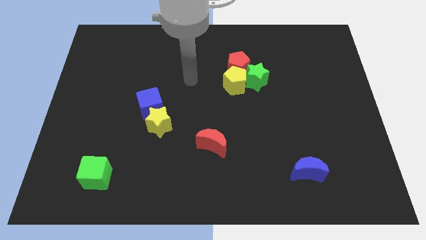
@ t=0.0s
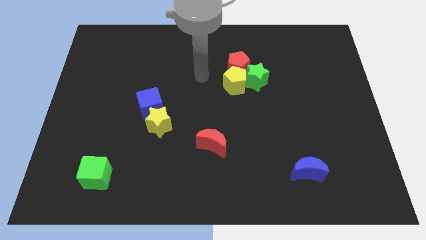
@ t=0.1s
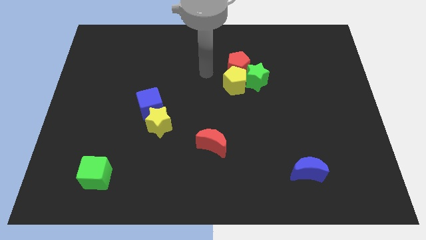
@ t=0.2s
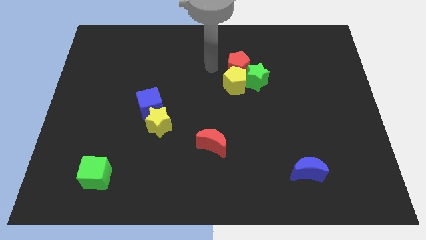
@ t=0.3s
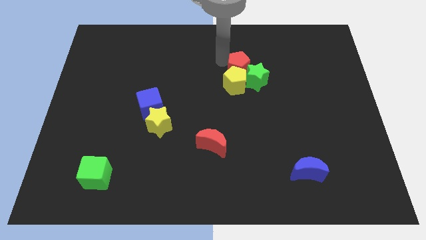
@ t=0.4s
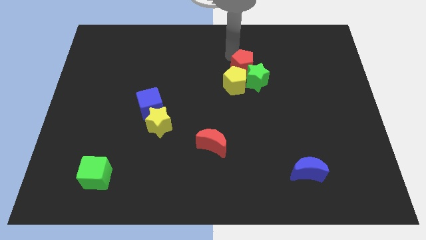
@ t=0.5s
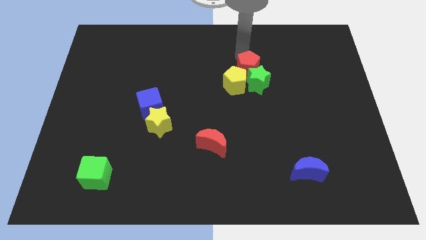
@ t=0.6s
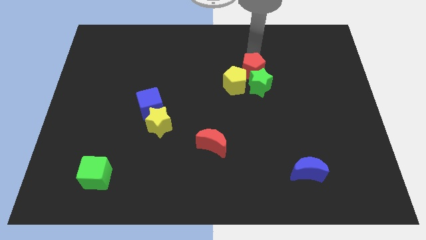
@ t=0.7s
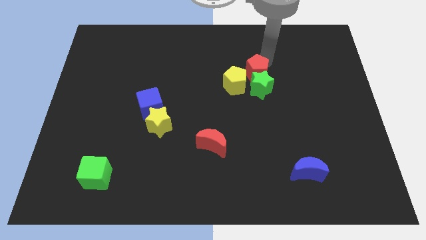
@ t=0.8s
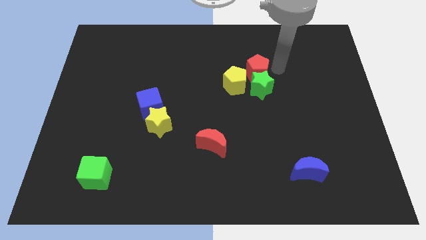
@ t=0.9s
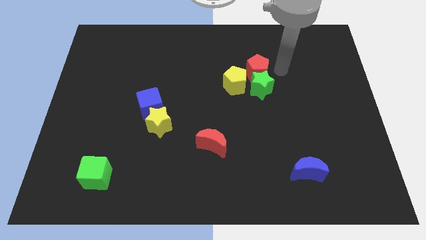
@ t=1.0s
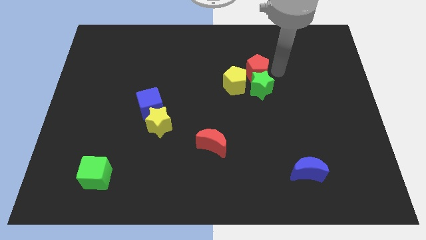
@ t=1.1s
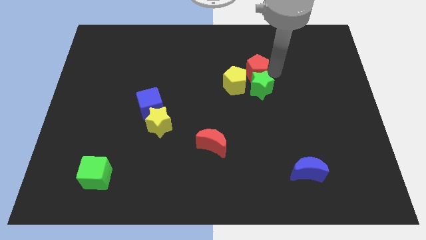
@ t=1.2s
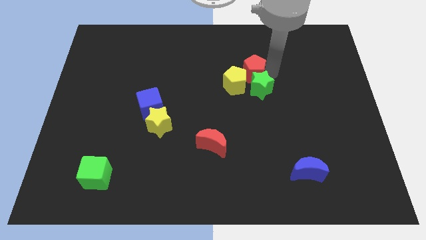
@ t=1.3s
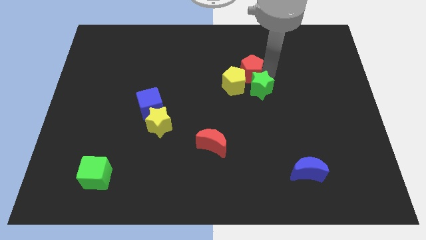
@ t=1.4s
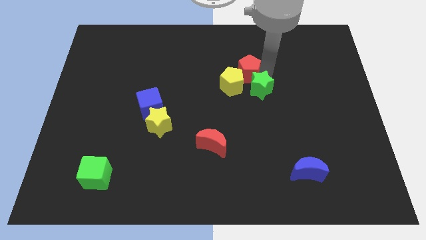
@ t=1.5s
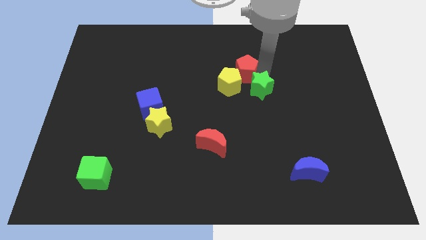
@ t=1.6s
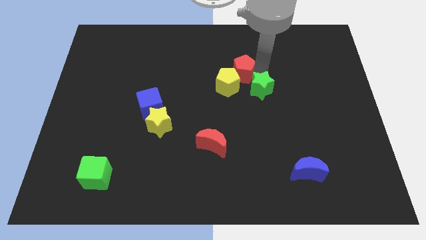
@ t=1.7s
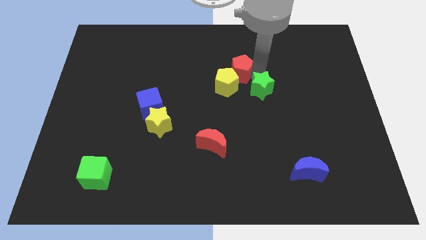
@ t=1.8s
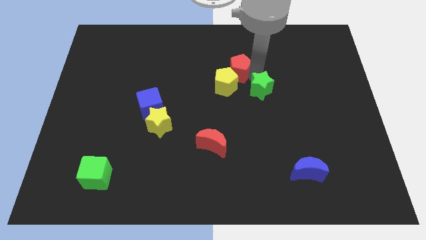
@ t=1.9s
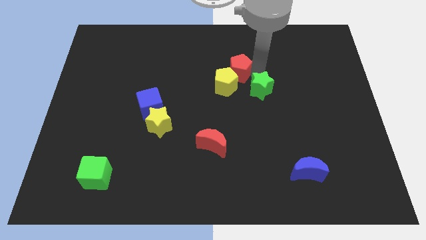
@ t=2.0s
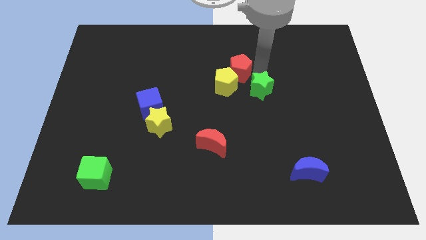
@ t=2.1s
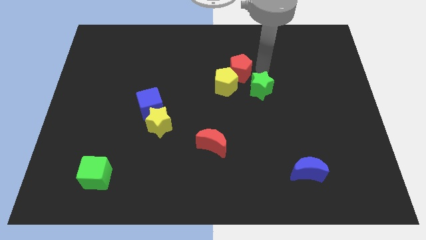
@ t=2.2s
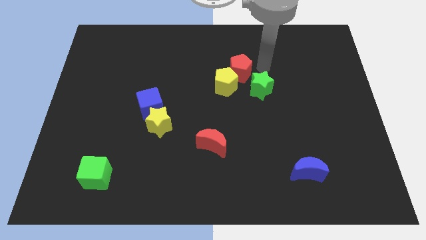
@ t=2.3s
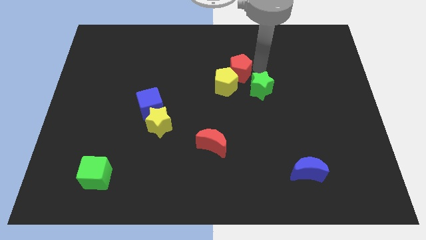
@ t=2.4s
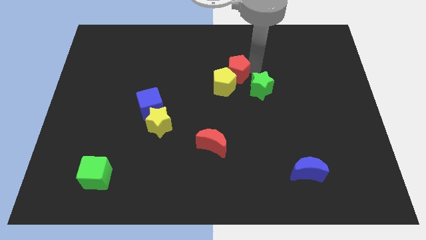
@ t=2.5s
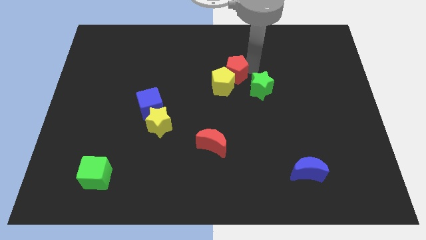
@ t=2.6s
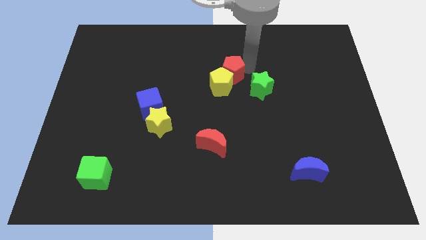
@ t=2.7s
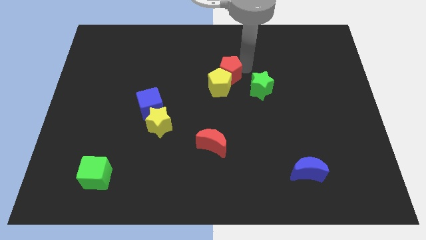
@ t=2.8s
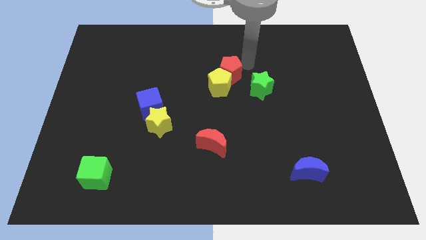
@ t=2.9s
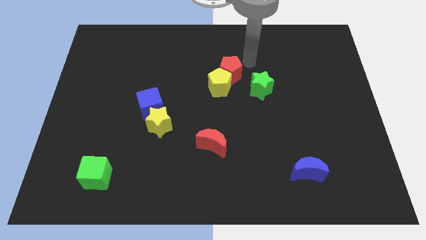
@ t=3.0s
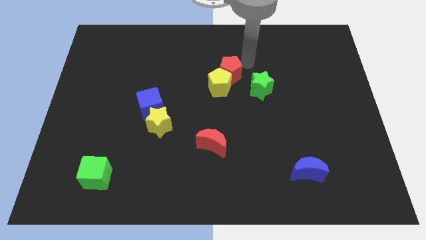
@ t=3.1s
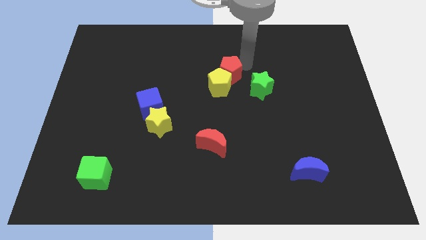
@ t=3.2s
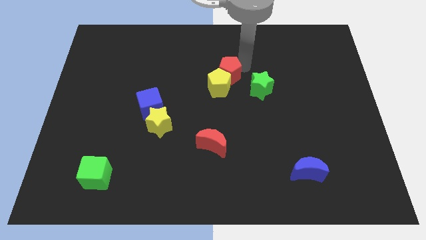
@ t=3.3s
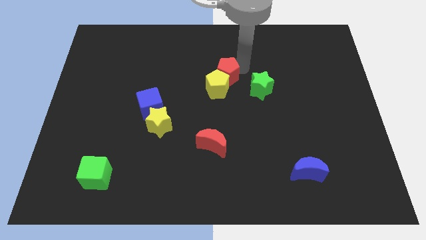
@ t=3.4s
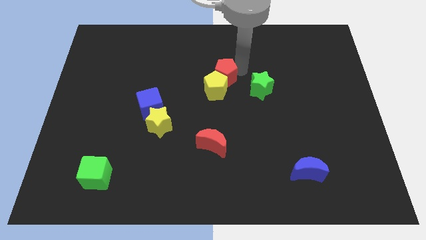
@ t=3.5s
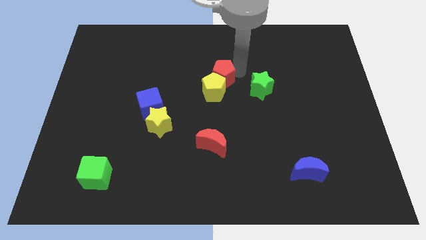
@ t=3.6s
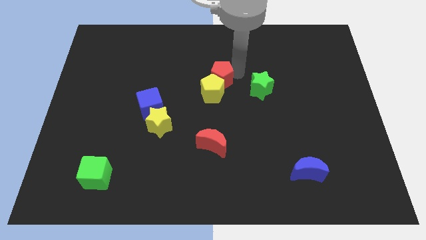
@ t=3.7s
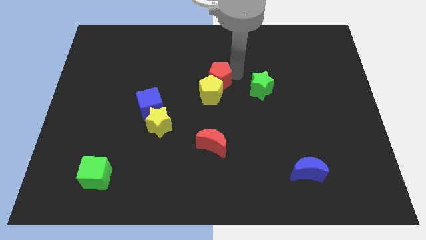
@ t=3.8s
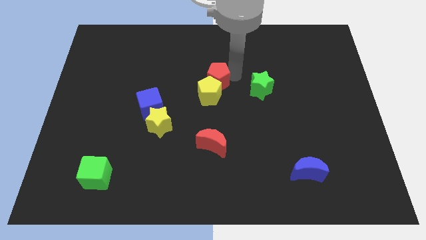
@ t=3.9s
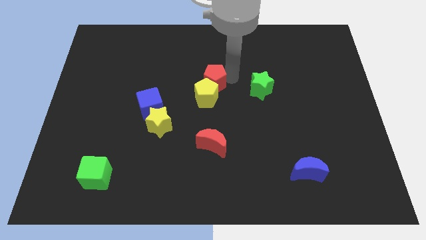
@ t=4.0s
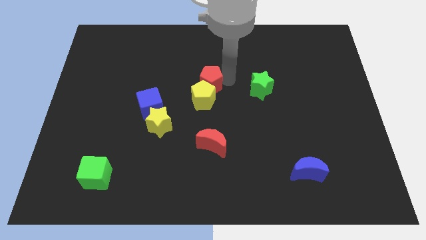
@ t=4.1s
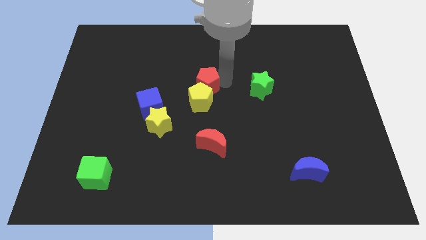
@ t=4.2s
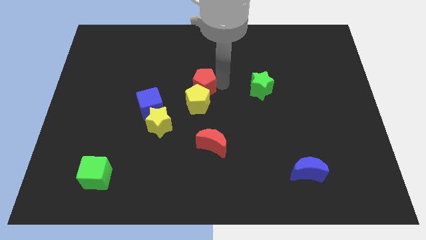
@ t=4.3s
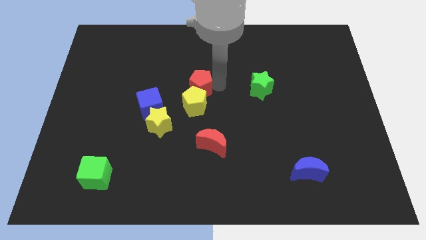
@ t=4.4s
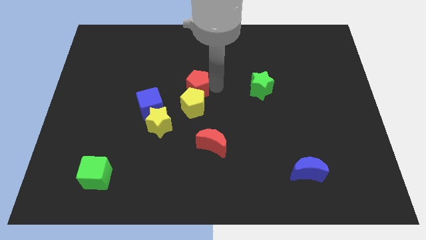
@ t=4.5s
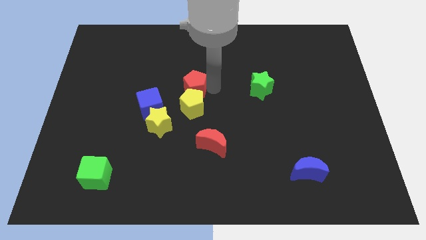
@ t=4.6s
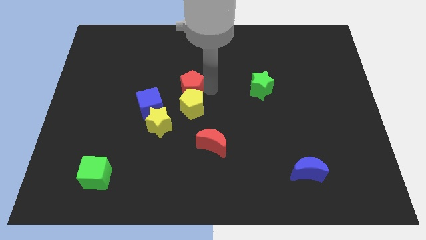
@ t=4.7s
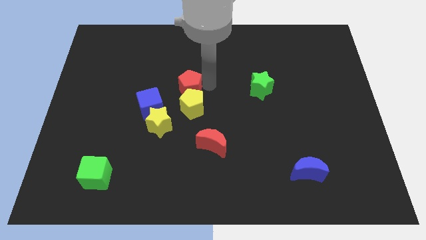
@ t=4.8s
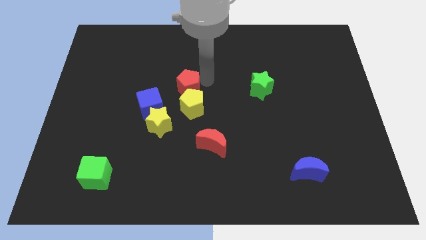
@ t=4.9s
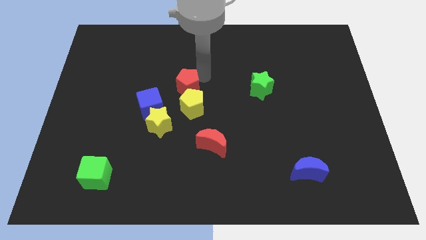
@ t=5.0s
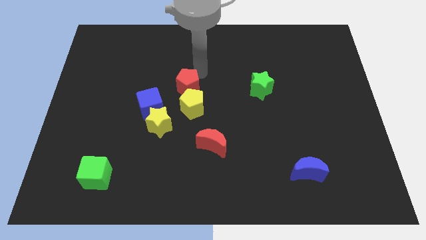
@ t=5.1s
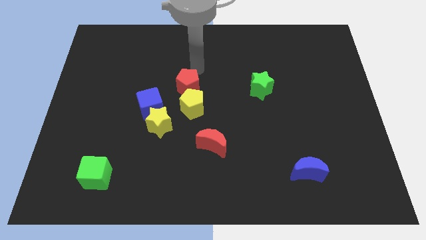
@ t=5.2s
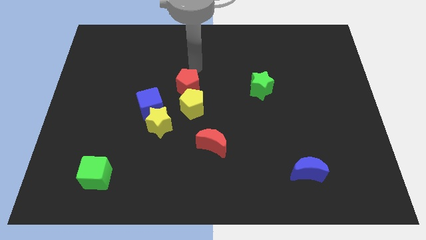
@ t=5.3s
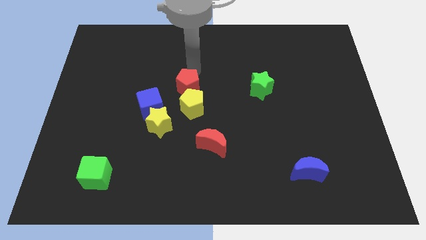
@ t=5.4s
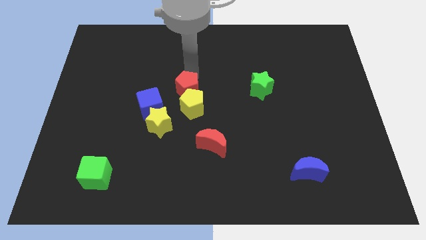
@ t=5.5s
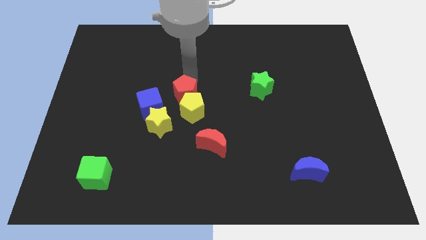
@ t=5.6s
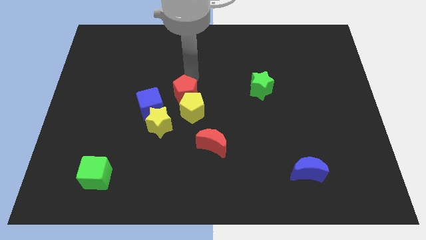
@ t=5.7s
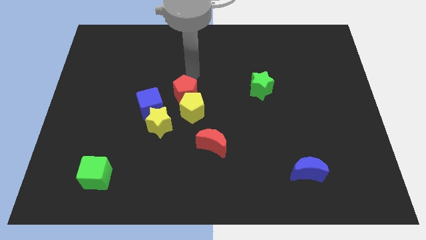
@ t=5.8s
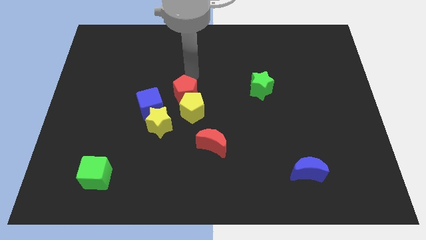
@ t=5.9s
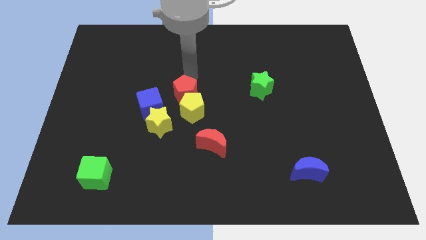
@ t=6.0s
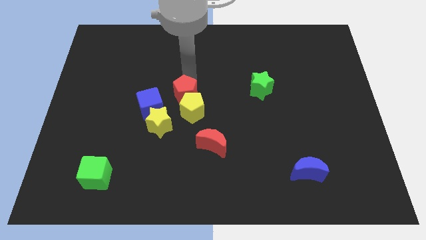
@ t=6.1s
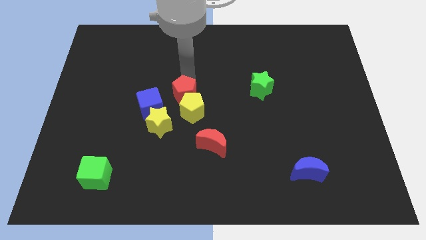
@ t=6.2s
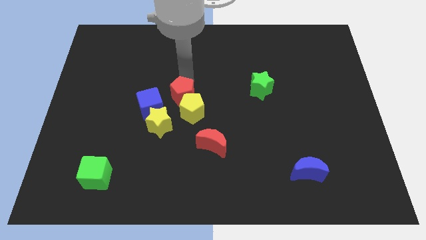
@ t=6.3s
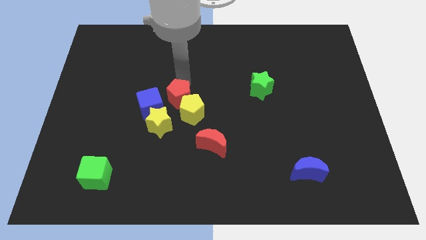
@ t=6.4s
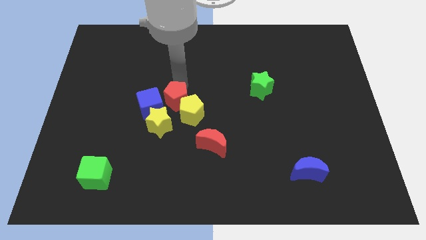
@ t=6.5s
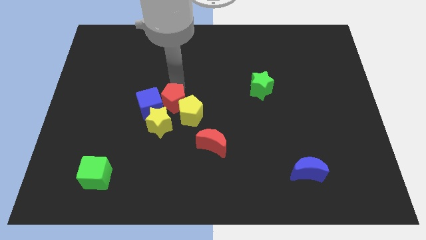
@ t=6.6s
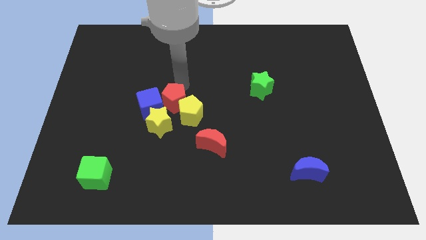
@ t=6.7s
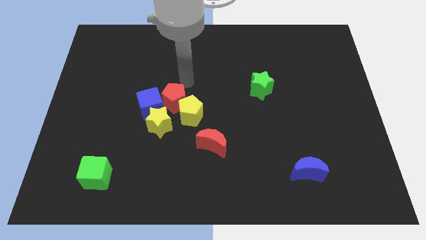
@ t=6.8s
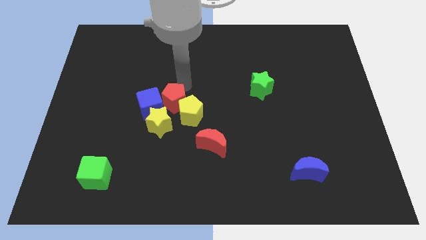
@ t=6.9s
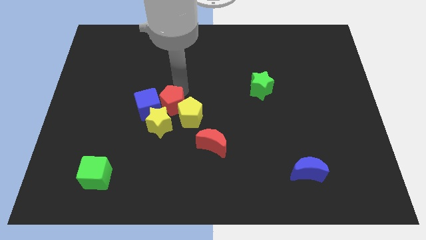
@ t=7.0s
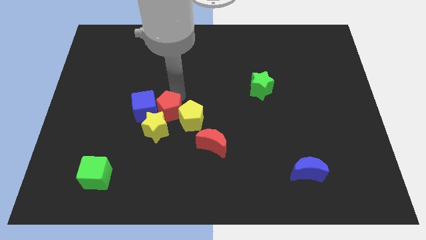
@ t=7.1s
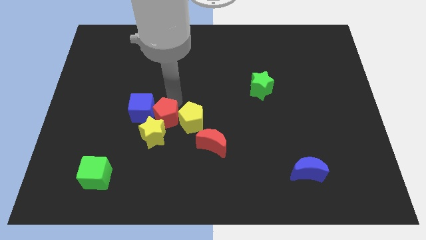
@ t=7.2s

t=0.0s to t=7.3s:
slide the red pentagon close to the yellow star

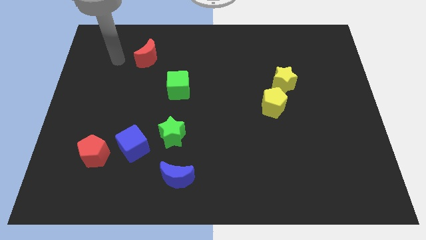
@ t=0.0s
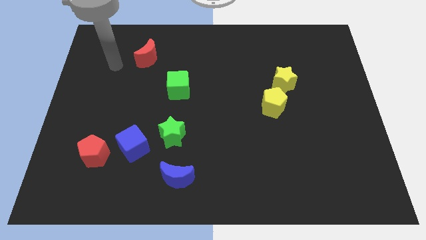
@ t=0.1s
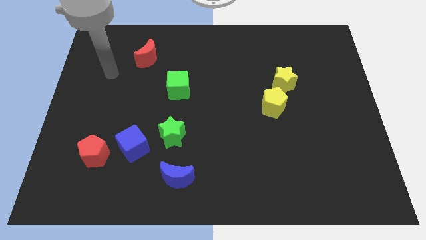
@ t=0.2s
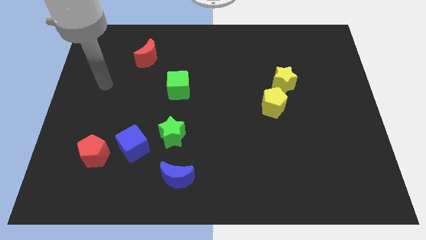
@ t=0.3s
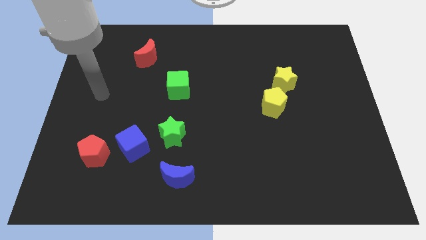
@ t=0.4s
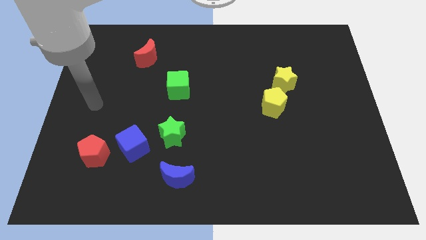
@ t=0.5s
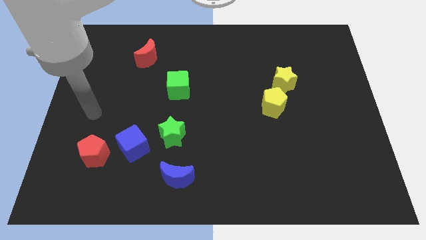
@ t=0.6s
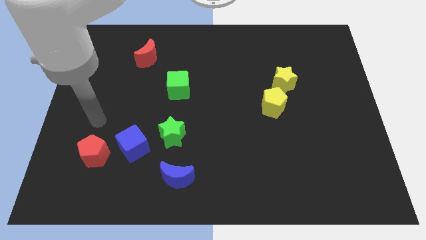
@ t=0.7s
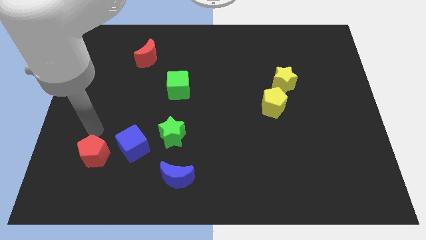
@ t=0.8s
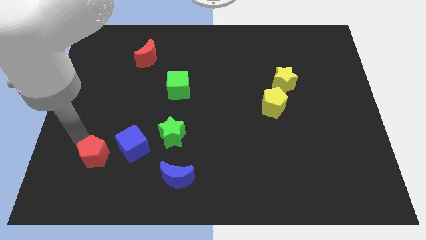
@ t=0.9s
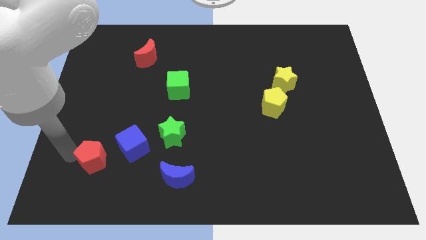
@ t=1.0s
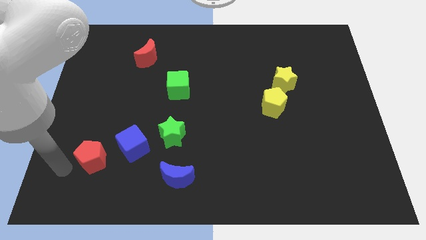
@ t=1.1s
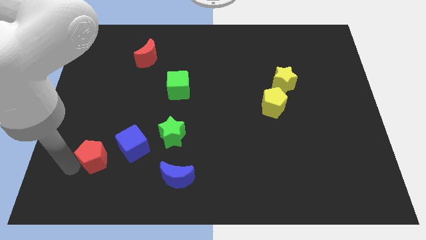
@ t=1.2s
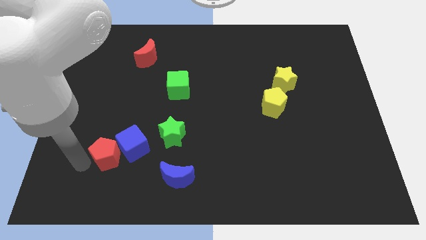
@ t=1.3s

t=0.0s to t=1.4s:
move the red pentagon next to the blue cube
